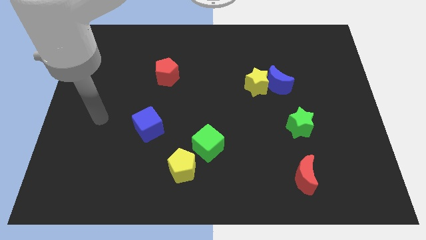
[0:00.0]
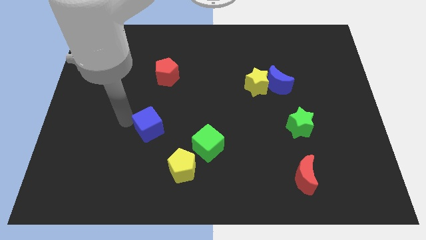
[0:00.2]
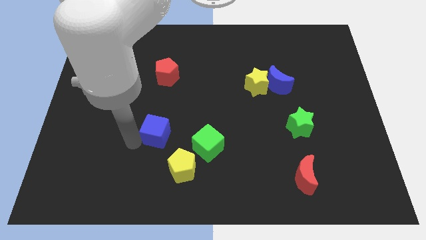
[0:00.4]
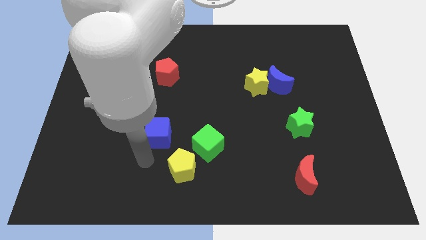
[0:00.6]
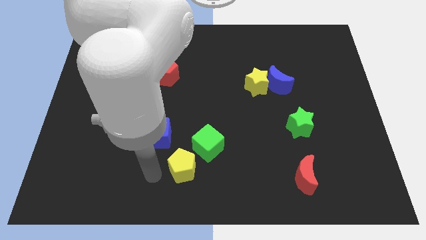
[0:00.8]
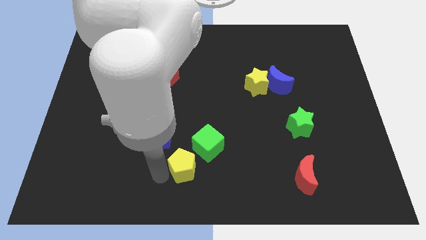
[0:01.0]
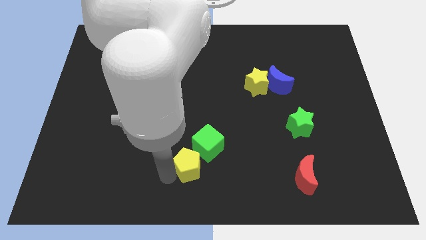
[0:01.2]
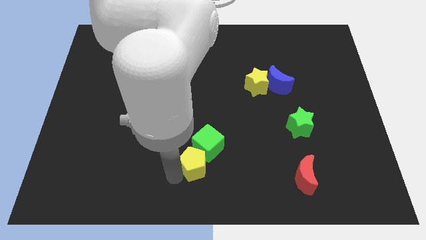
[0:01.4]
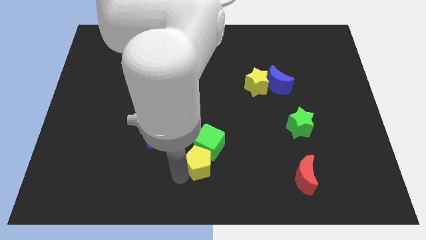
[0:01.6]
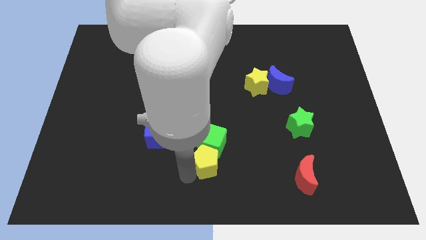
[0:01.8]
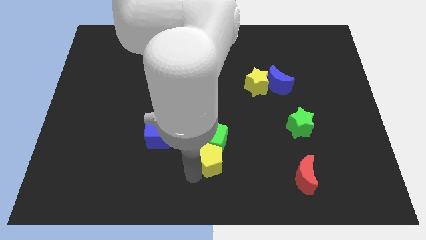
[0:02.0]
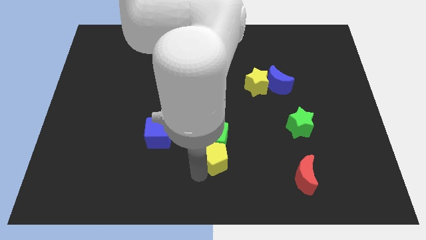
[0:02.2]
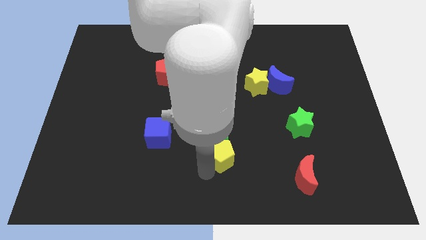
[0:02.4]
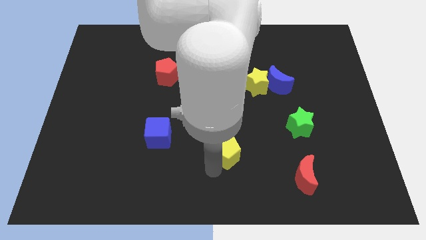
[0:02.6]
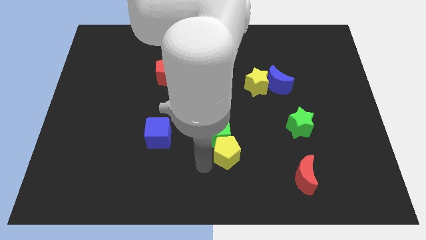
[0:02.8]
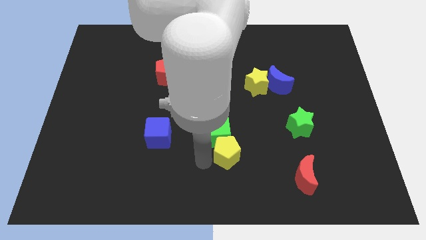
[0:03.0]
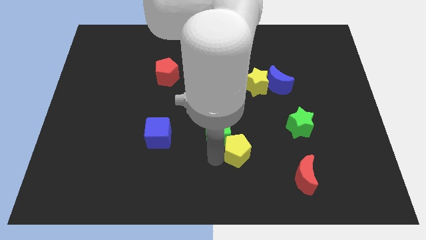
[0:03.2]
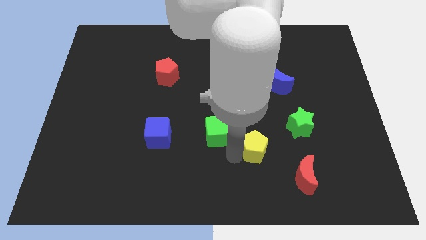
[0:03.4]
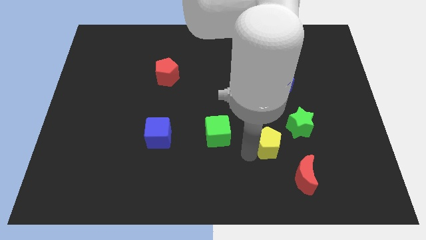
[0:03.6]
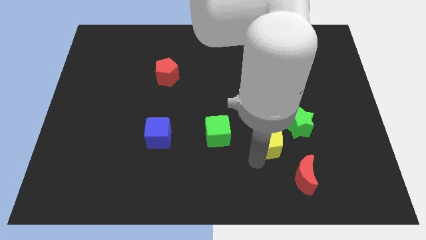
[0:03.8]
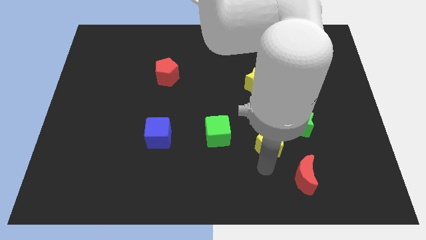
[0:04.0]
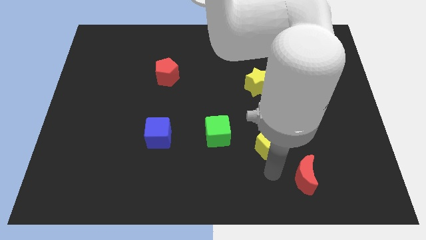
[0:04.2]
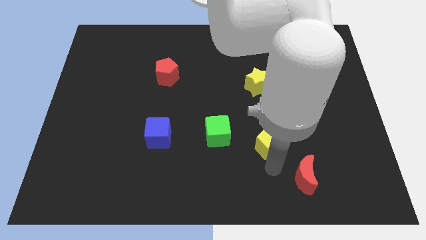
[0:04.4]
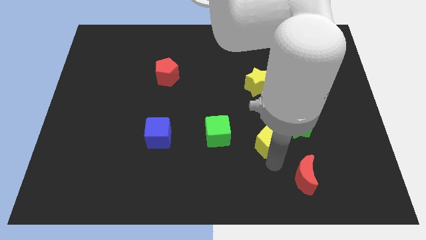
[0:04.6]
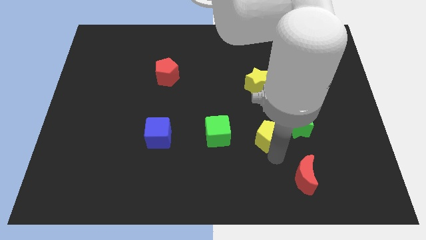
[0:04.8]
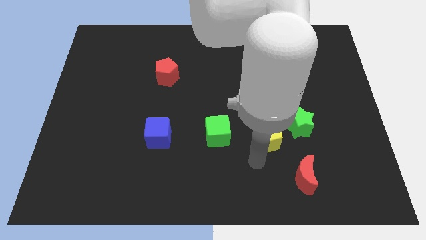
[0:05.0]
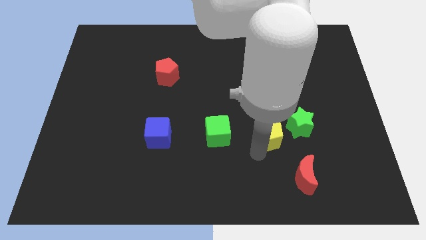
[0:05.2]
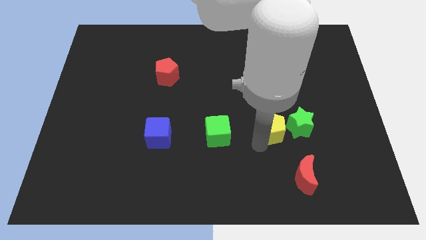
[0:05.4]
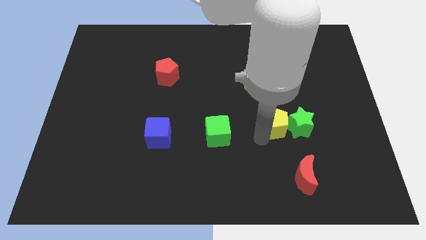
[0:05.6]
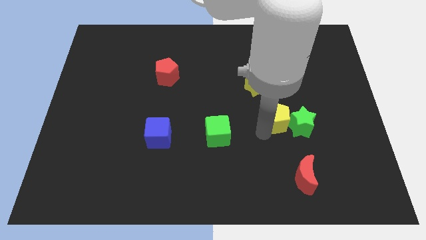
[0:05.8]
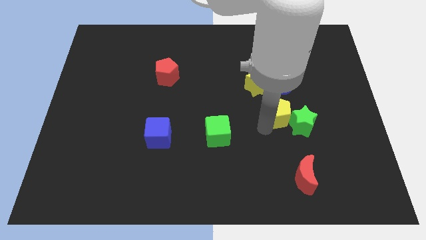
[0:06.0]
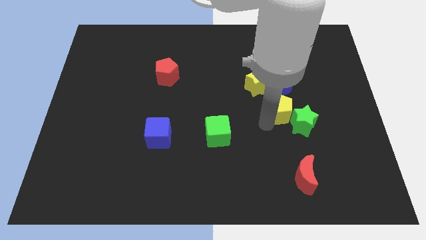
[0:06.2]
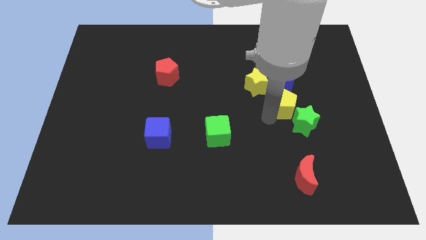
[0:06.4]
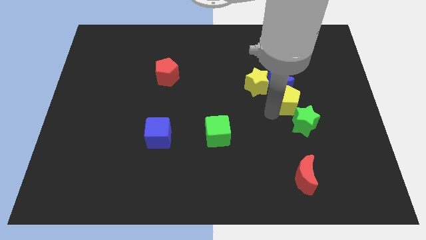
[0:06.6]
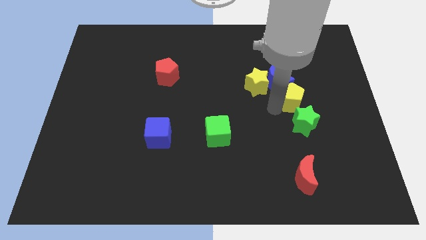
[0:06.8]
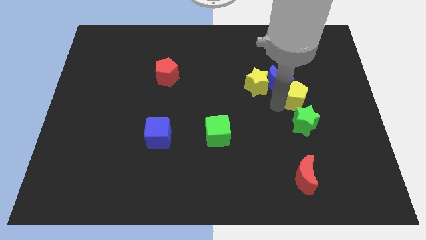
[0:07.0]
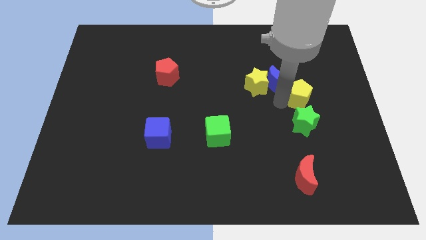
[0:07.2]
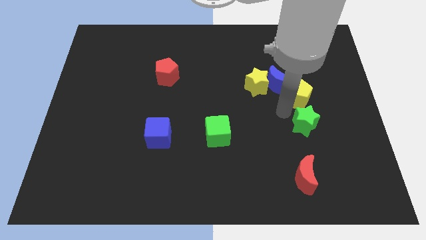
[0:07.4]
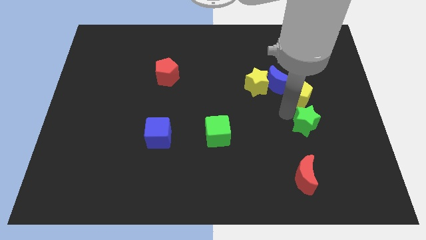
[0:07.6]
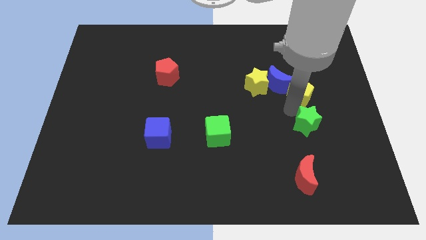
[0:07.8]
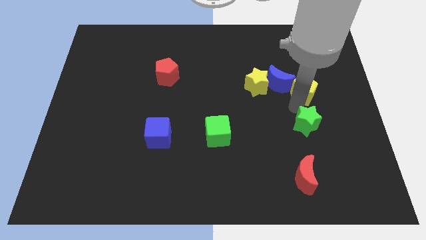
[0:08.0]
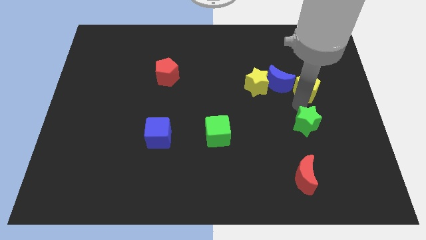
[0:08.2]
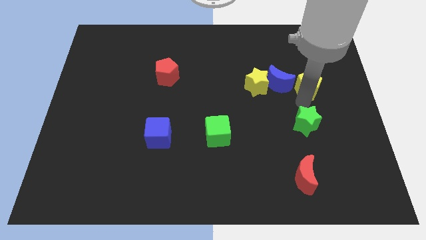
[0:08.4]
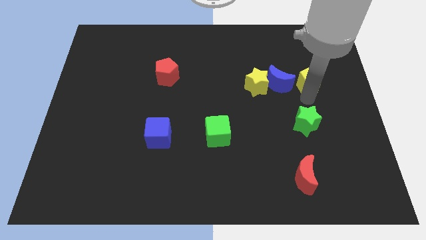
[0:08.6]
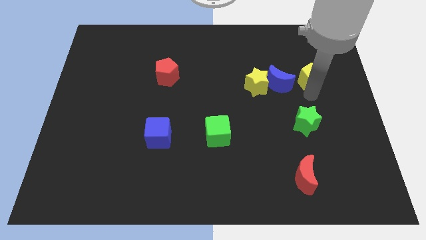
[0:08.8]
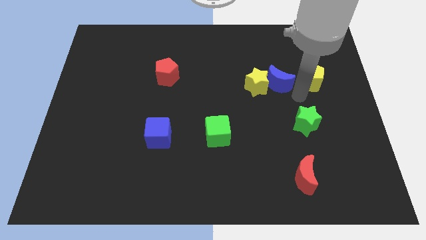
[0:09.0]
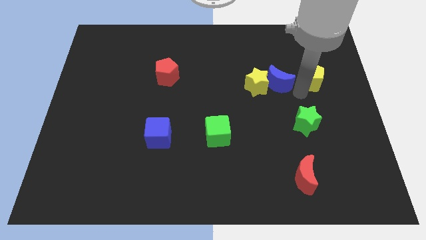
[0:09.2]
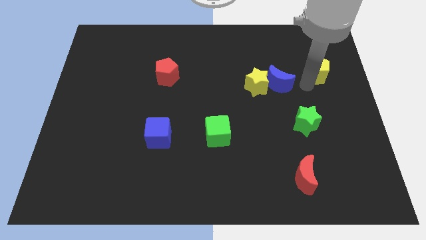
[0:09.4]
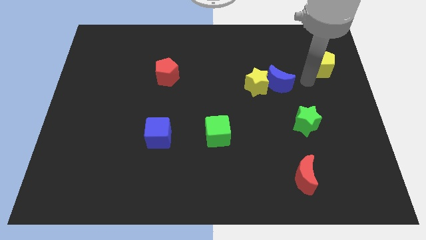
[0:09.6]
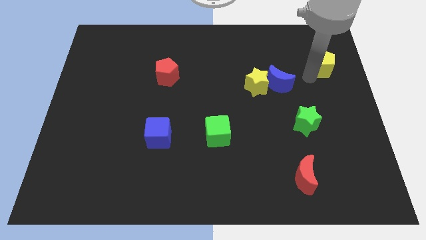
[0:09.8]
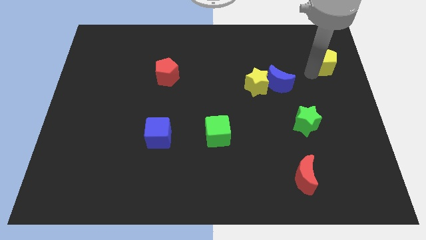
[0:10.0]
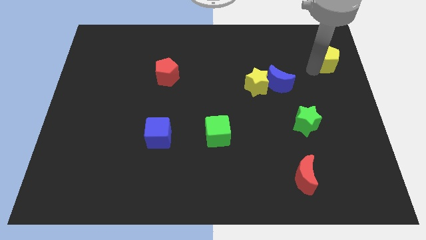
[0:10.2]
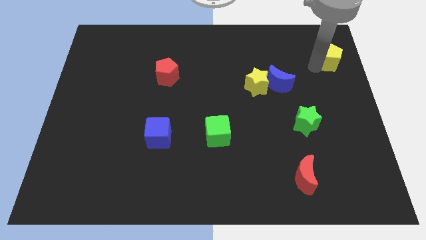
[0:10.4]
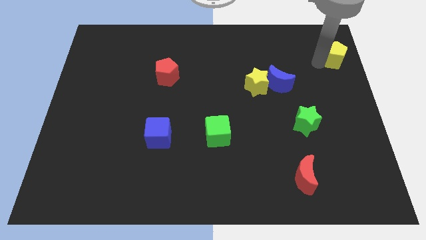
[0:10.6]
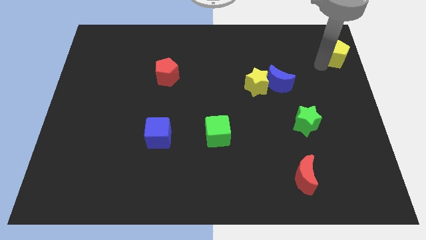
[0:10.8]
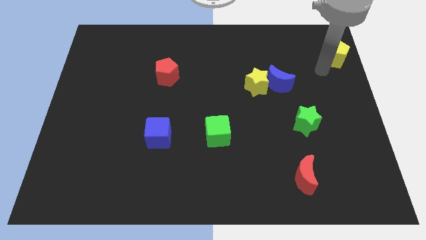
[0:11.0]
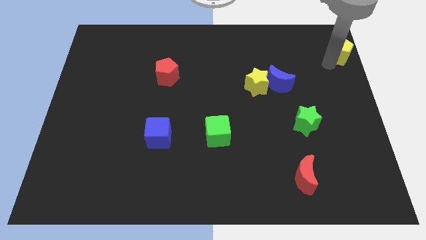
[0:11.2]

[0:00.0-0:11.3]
move the yellow pentagon to the top right
